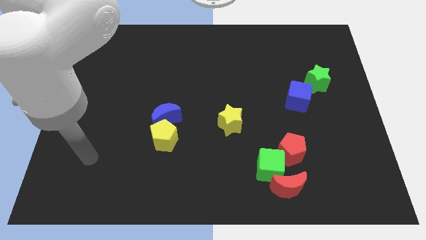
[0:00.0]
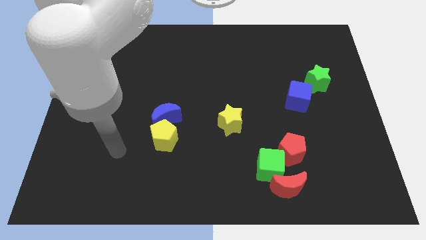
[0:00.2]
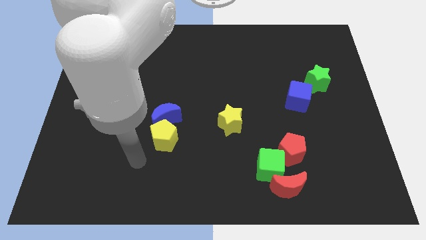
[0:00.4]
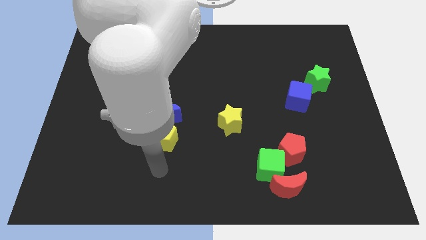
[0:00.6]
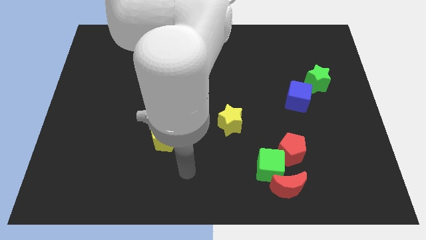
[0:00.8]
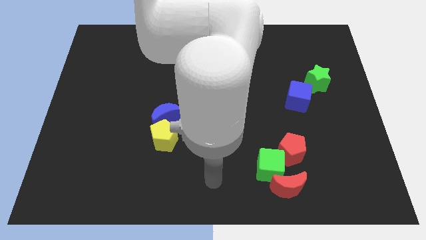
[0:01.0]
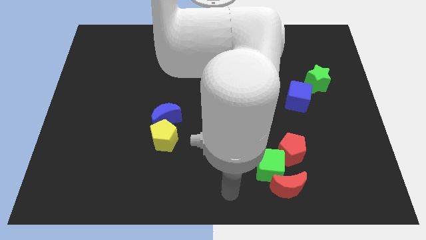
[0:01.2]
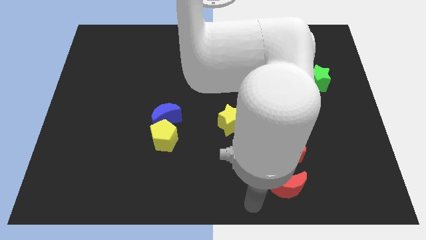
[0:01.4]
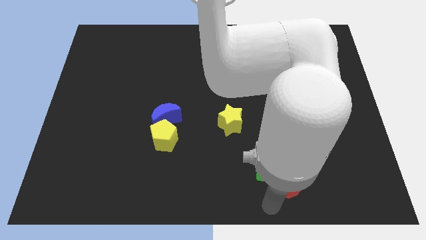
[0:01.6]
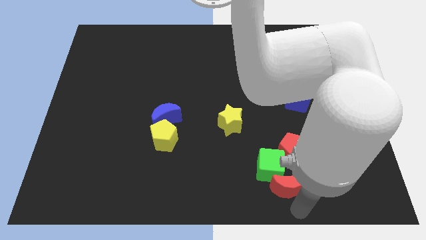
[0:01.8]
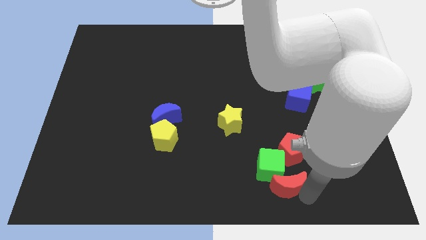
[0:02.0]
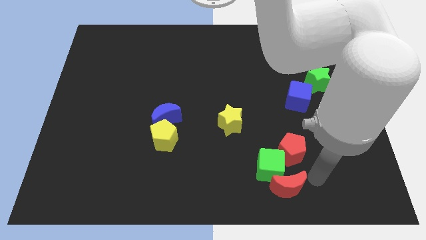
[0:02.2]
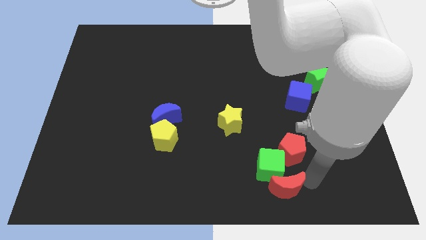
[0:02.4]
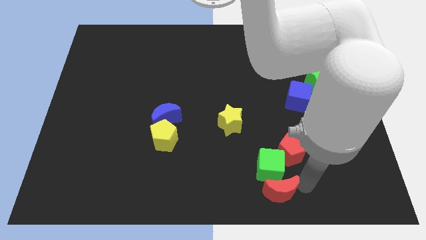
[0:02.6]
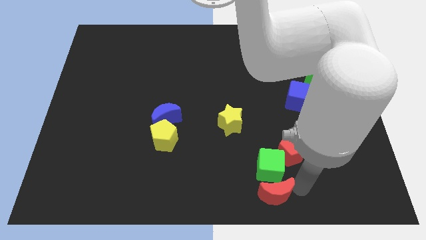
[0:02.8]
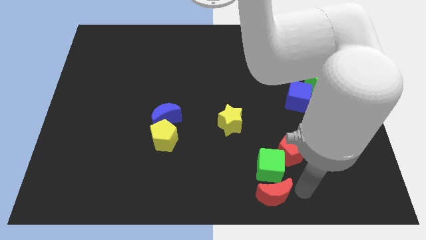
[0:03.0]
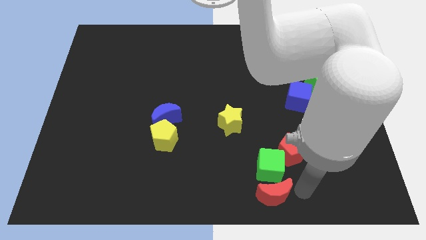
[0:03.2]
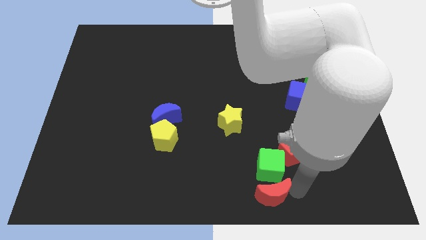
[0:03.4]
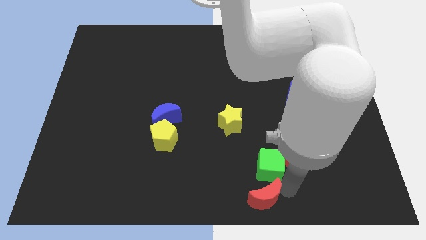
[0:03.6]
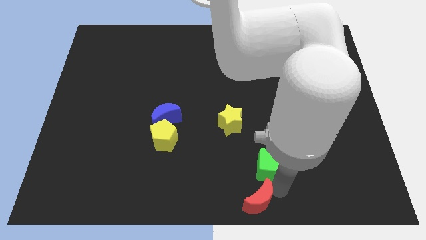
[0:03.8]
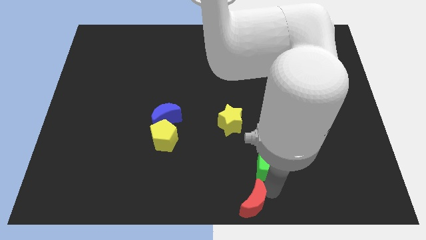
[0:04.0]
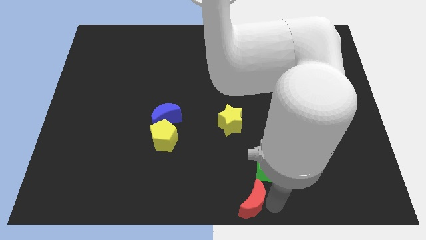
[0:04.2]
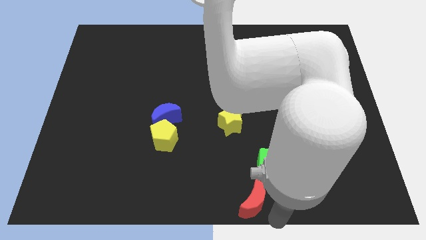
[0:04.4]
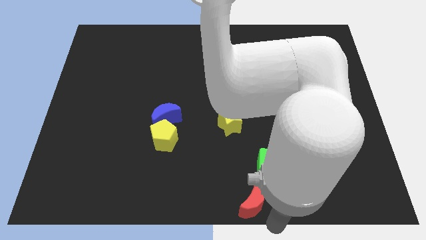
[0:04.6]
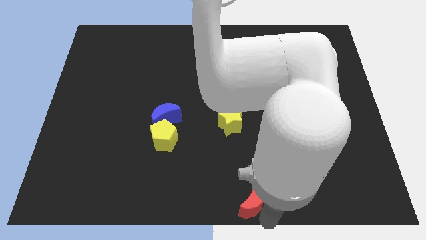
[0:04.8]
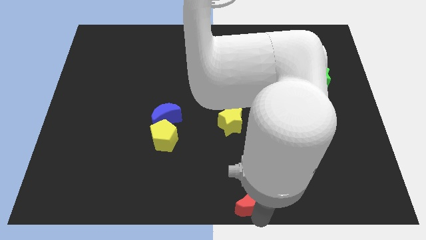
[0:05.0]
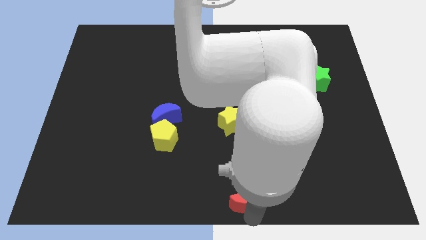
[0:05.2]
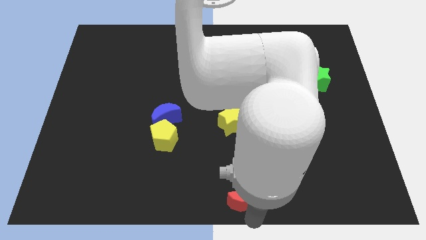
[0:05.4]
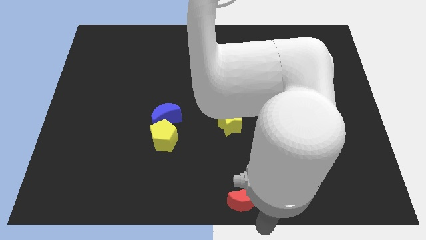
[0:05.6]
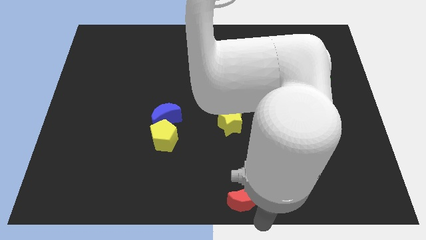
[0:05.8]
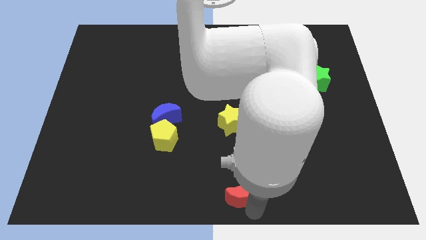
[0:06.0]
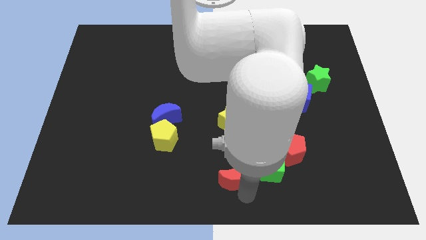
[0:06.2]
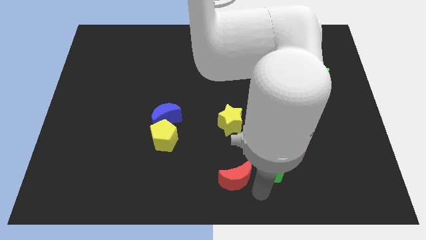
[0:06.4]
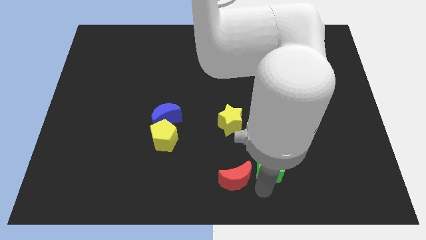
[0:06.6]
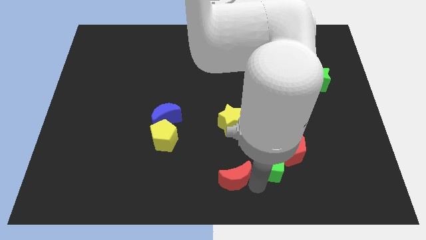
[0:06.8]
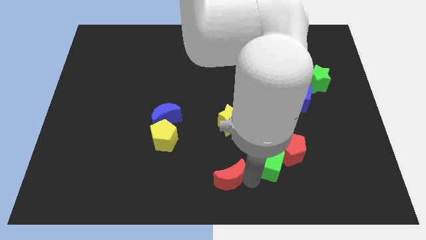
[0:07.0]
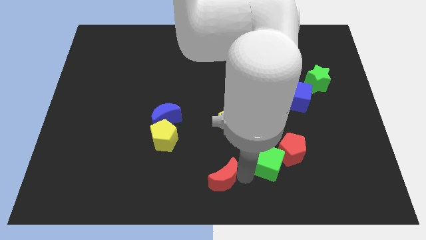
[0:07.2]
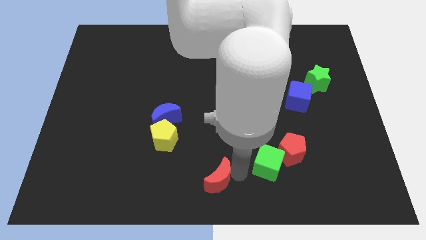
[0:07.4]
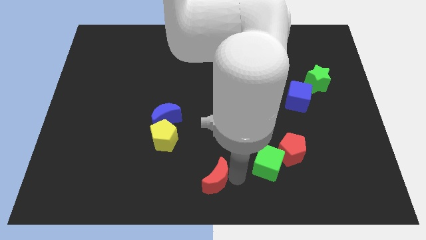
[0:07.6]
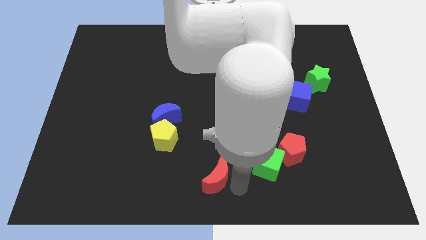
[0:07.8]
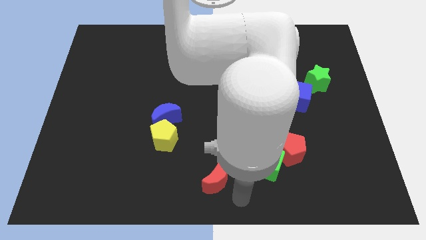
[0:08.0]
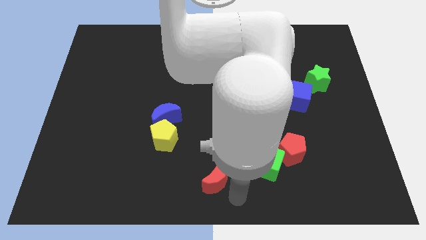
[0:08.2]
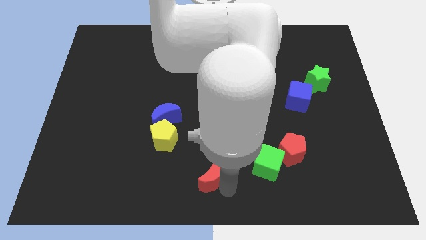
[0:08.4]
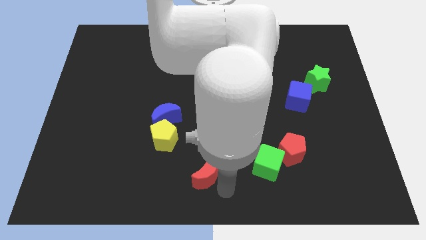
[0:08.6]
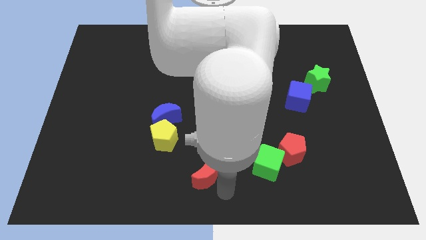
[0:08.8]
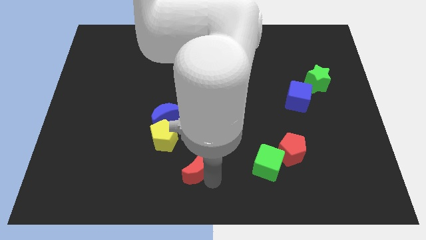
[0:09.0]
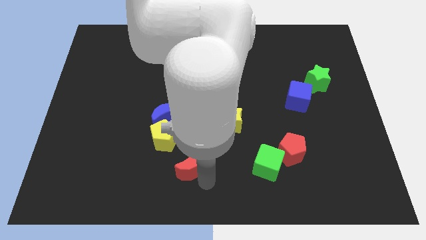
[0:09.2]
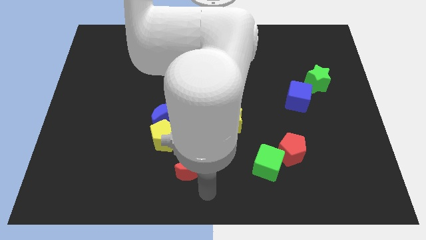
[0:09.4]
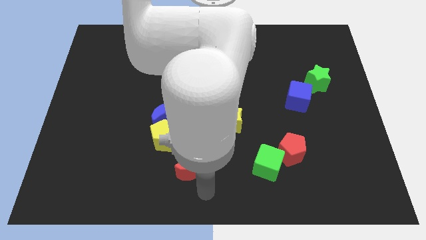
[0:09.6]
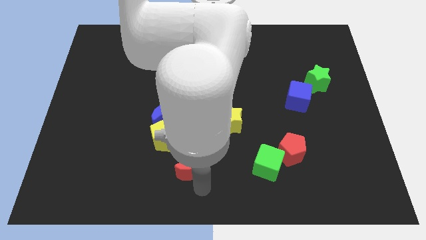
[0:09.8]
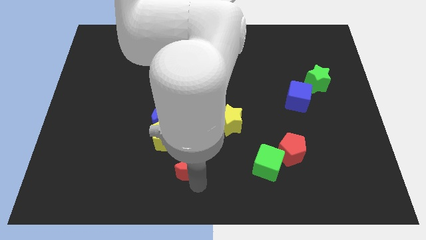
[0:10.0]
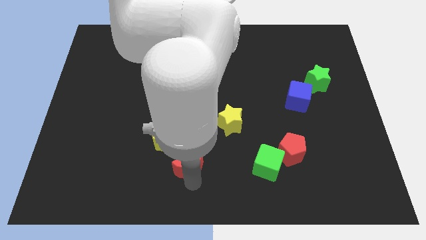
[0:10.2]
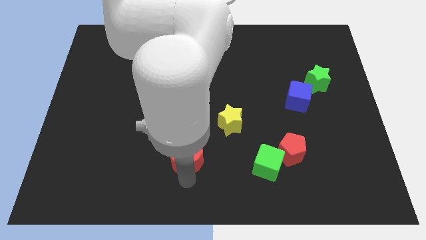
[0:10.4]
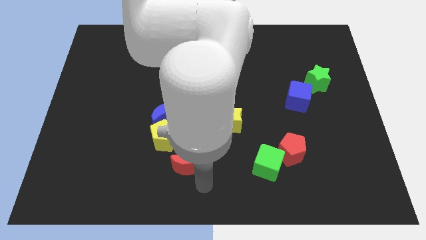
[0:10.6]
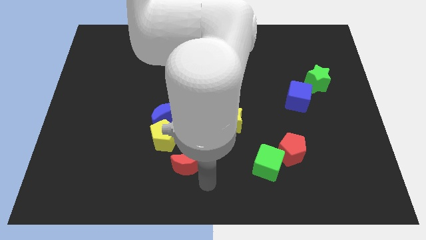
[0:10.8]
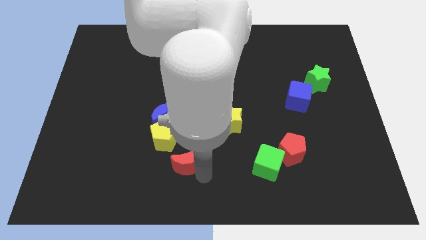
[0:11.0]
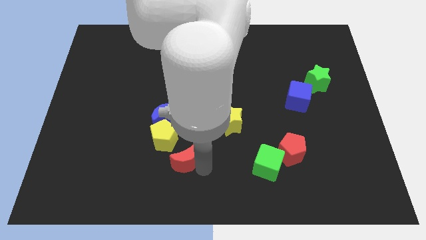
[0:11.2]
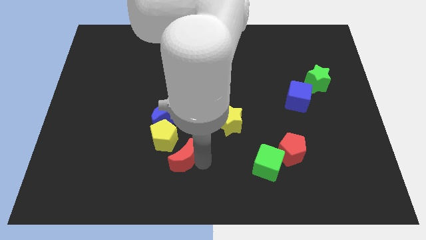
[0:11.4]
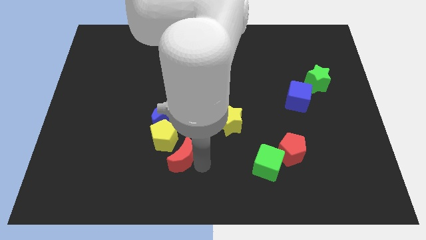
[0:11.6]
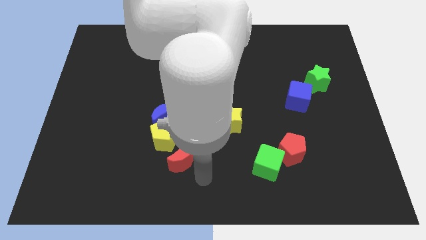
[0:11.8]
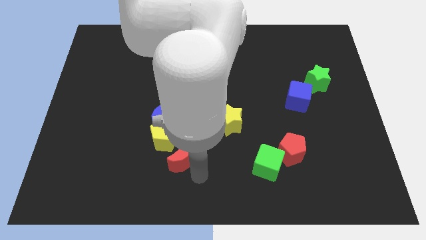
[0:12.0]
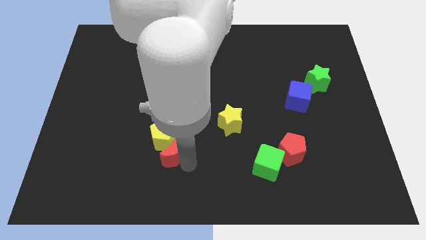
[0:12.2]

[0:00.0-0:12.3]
put the red moon towards the yellow pentagon

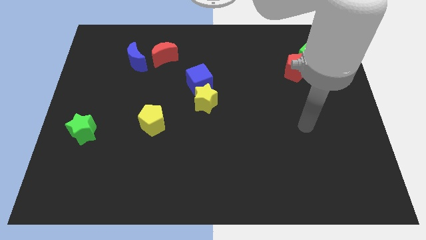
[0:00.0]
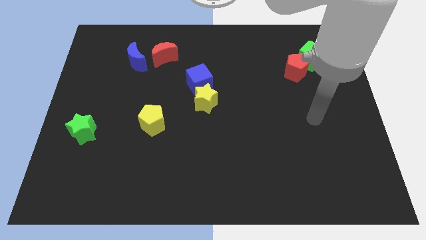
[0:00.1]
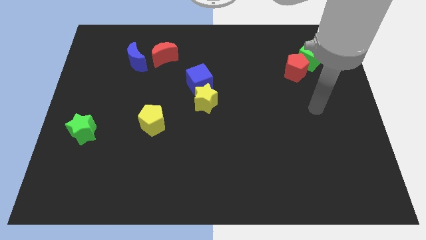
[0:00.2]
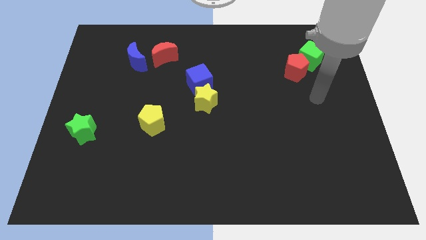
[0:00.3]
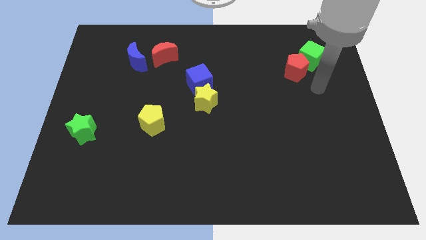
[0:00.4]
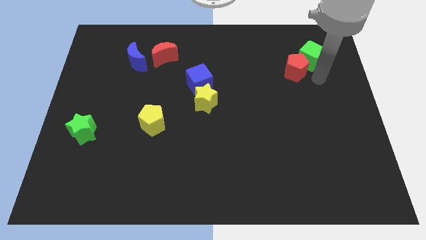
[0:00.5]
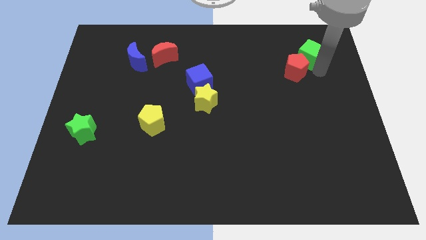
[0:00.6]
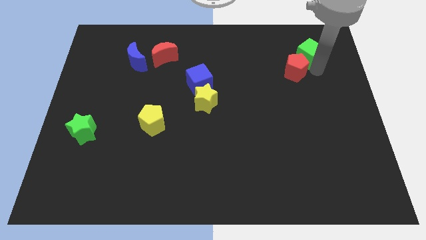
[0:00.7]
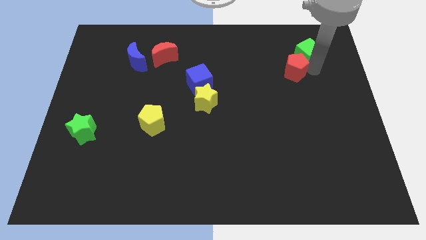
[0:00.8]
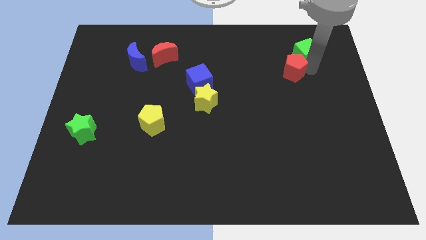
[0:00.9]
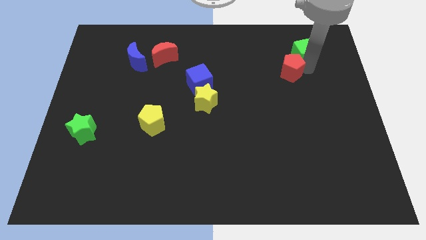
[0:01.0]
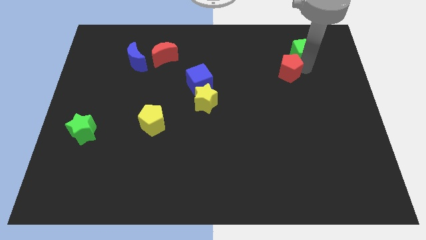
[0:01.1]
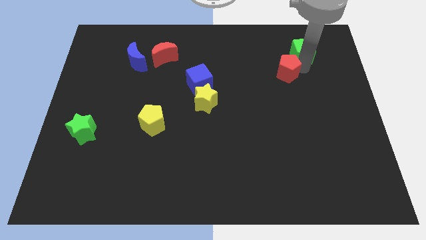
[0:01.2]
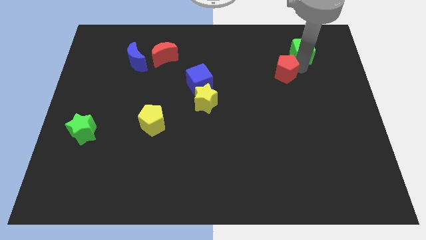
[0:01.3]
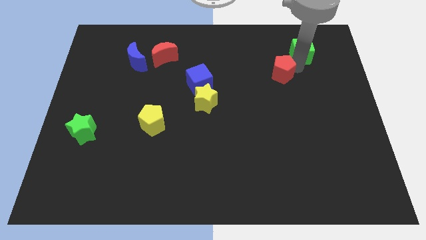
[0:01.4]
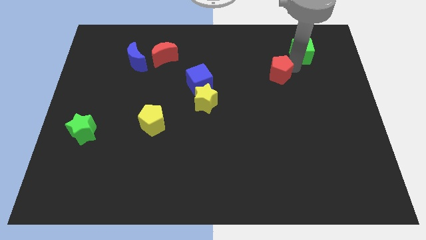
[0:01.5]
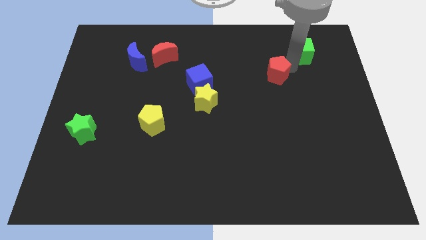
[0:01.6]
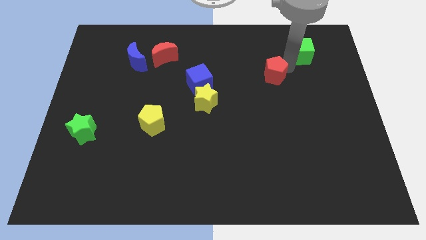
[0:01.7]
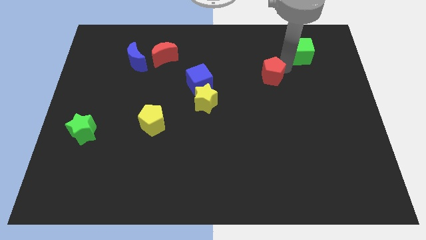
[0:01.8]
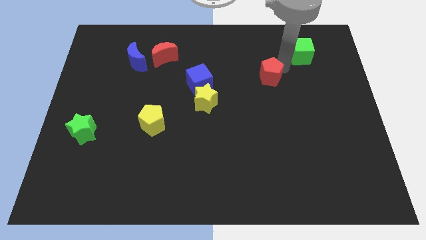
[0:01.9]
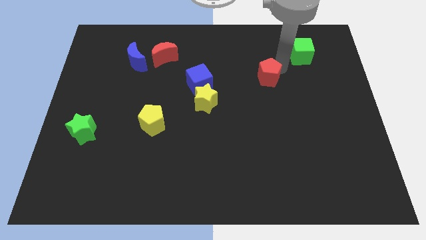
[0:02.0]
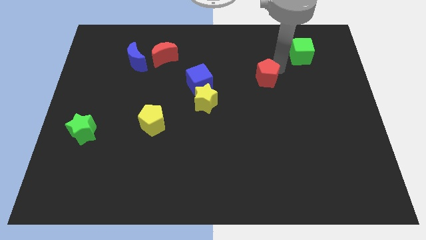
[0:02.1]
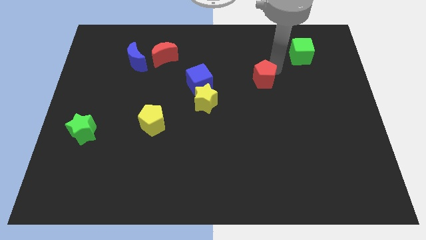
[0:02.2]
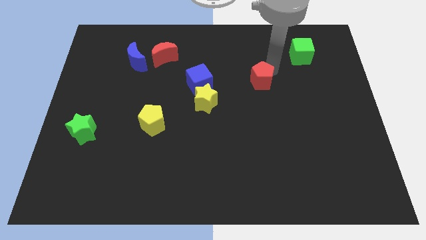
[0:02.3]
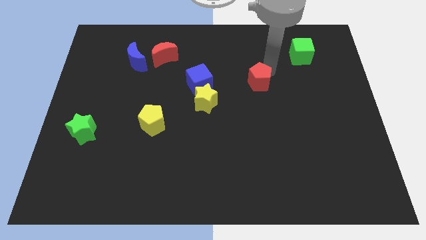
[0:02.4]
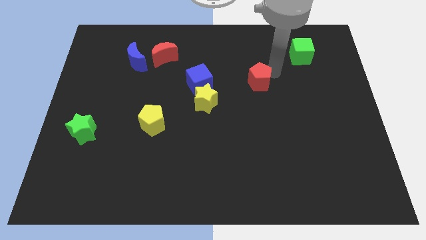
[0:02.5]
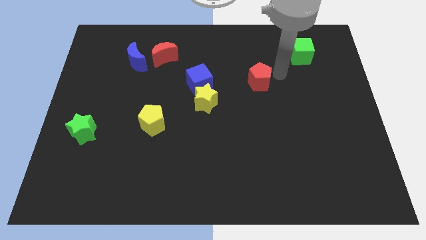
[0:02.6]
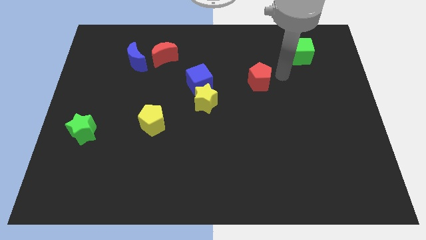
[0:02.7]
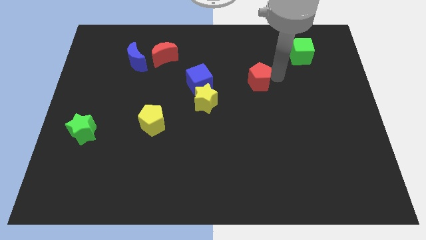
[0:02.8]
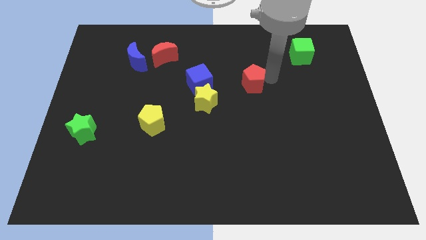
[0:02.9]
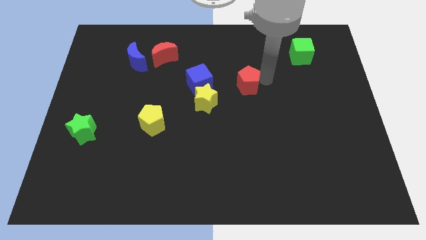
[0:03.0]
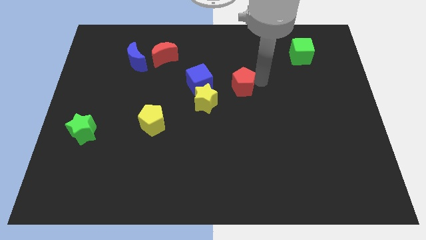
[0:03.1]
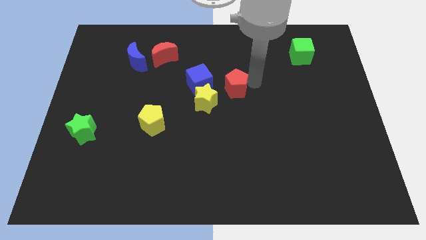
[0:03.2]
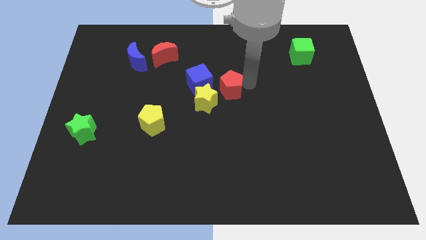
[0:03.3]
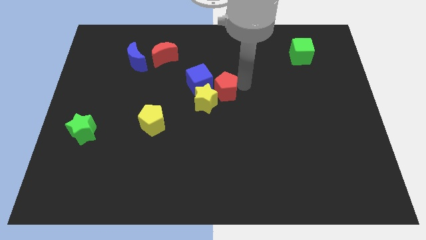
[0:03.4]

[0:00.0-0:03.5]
push the red pentagon to the yellow star
